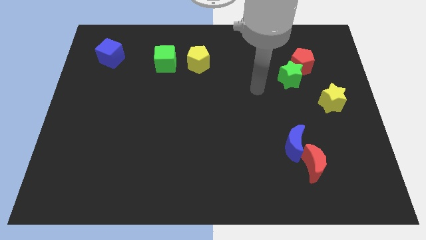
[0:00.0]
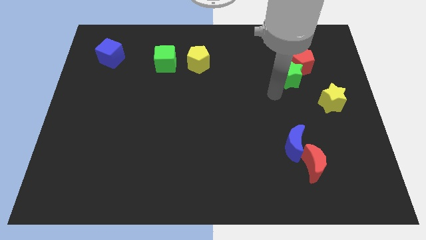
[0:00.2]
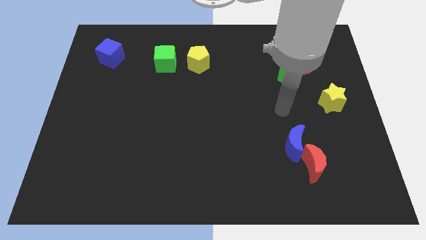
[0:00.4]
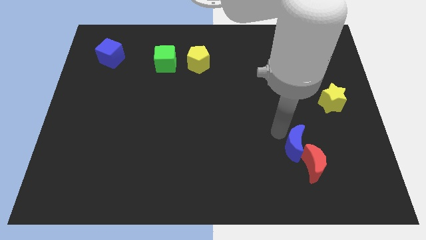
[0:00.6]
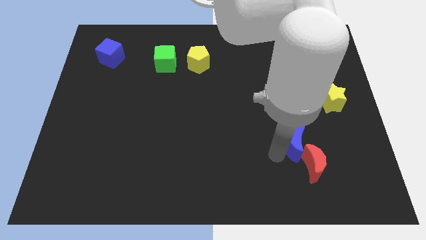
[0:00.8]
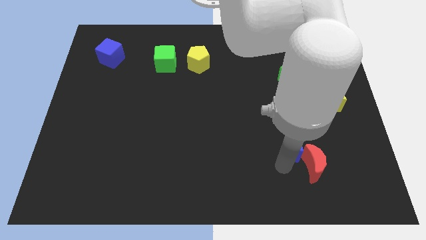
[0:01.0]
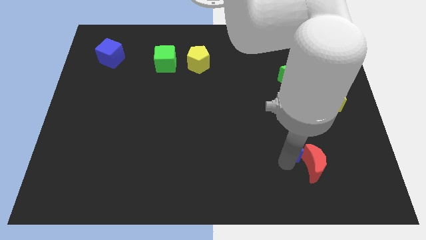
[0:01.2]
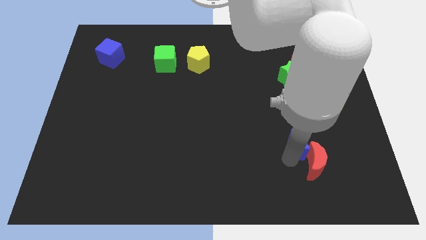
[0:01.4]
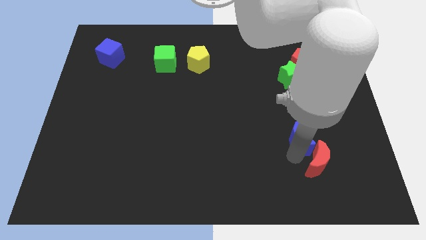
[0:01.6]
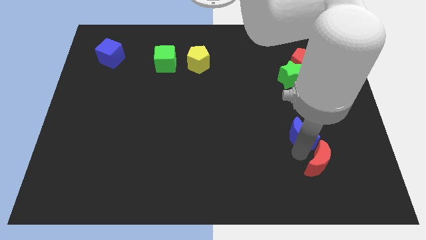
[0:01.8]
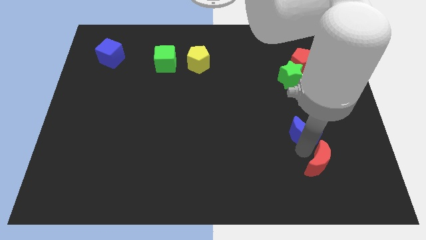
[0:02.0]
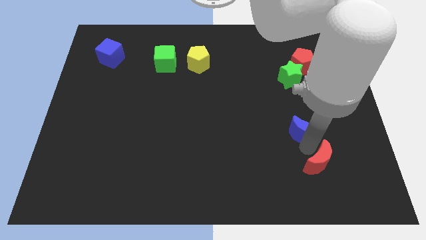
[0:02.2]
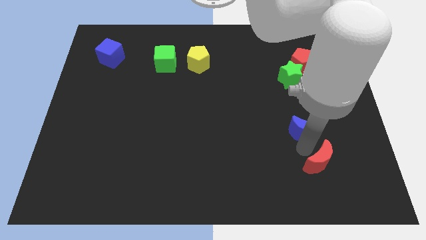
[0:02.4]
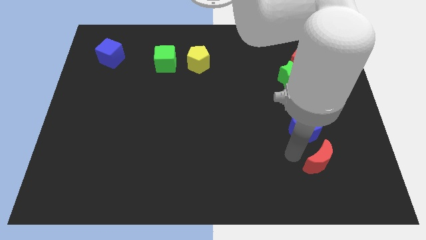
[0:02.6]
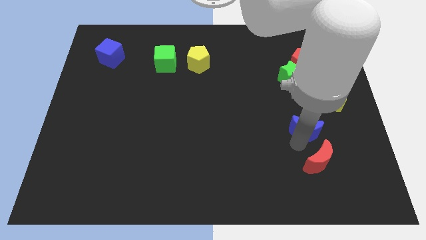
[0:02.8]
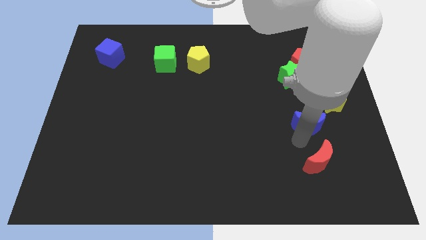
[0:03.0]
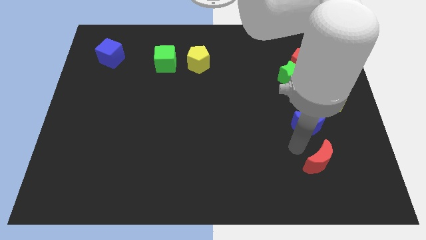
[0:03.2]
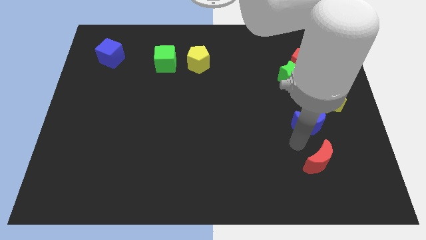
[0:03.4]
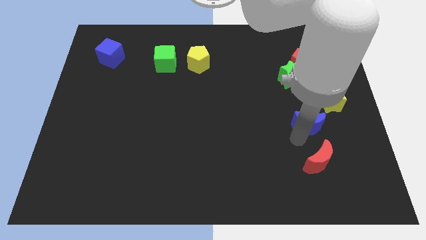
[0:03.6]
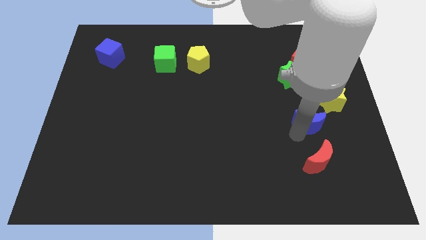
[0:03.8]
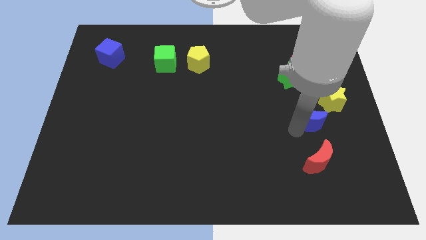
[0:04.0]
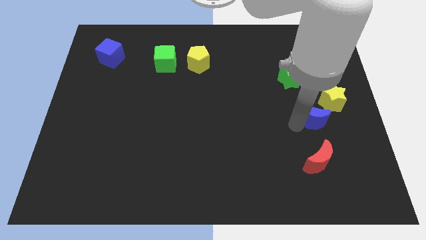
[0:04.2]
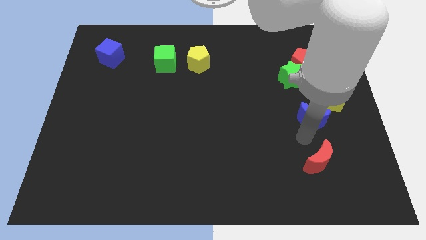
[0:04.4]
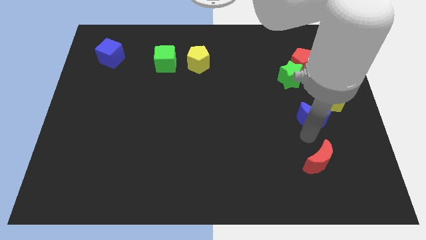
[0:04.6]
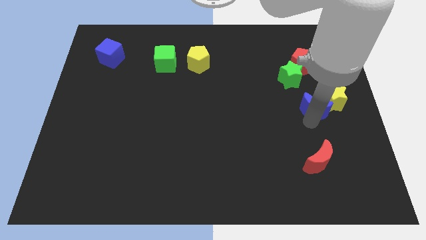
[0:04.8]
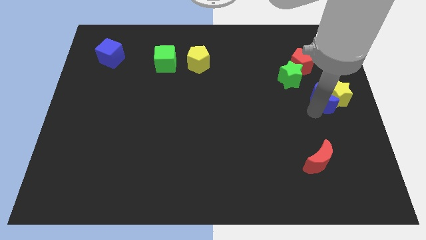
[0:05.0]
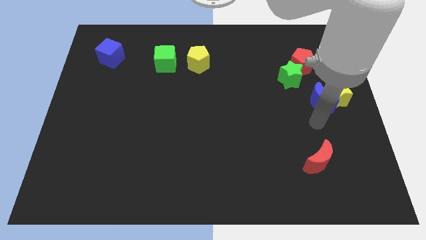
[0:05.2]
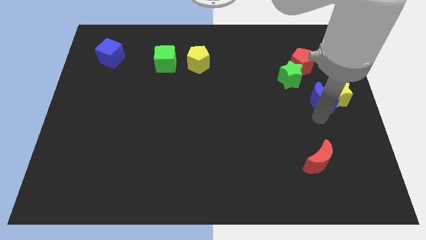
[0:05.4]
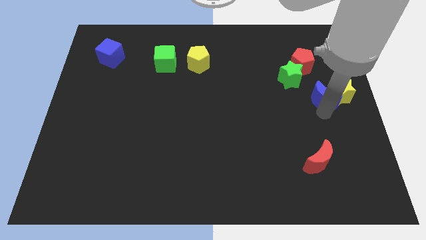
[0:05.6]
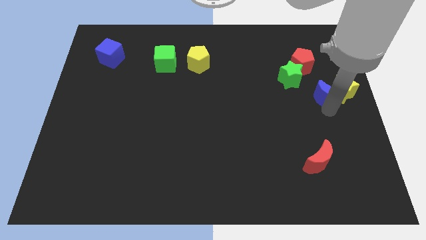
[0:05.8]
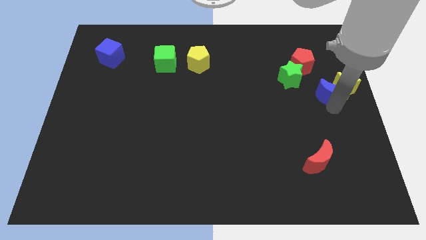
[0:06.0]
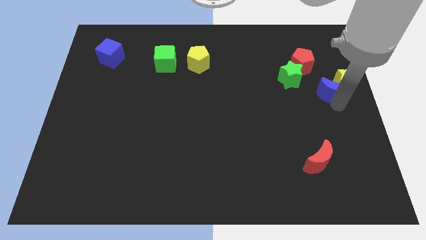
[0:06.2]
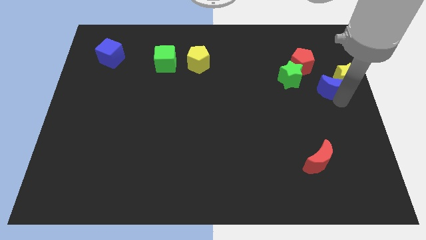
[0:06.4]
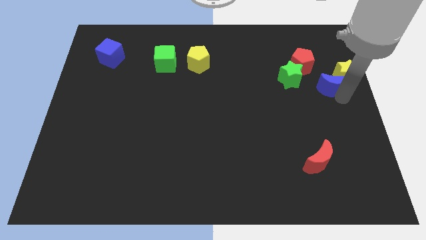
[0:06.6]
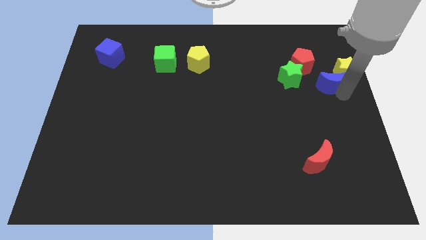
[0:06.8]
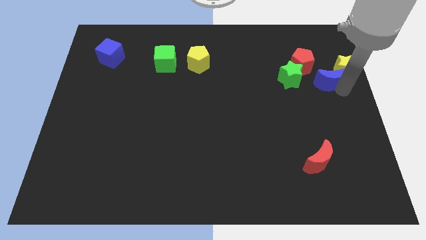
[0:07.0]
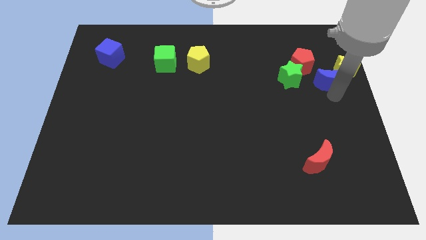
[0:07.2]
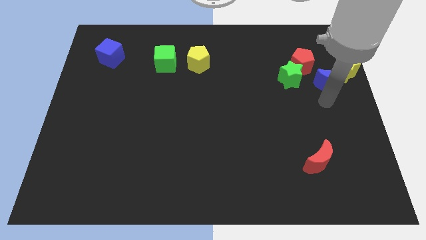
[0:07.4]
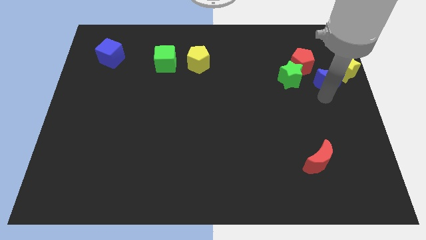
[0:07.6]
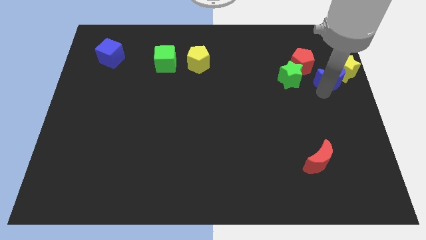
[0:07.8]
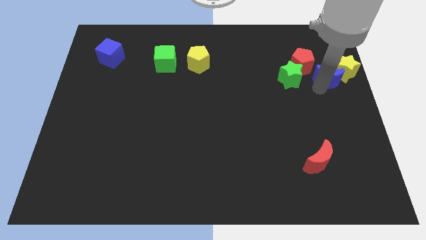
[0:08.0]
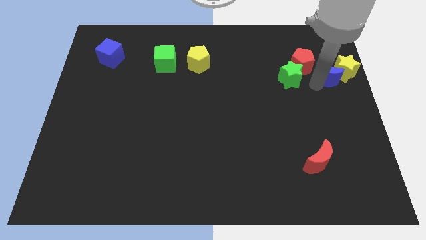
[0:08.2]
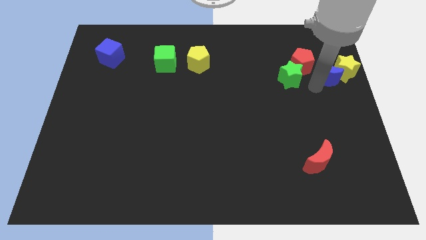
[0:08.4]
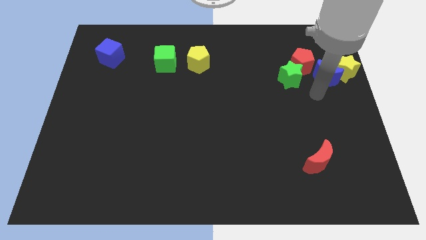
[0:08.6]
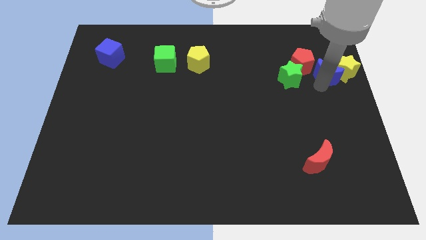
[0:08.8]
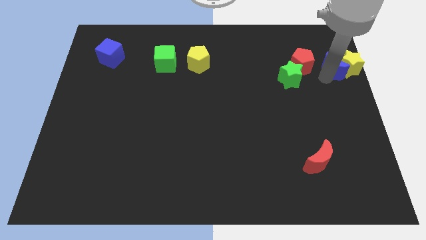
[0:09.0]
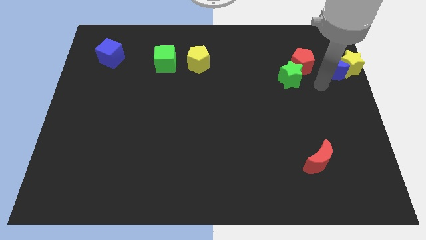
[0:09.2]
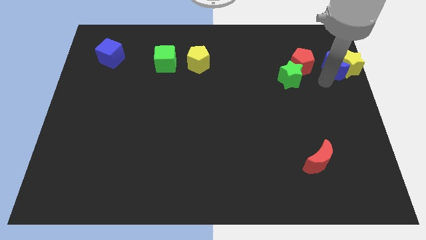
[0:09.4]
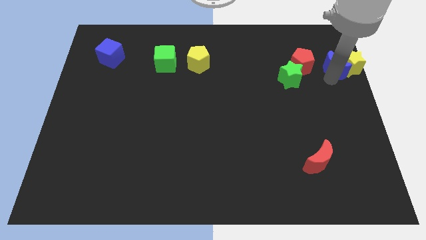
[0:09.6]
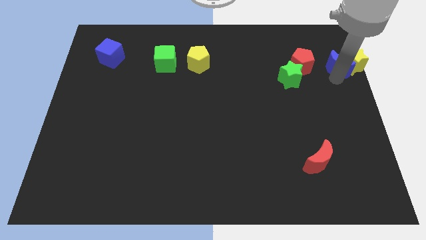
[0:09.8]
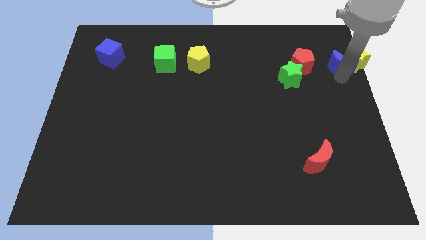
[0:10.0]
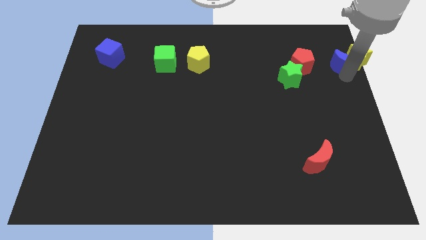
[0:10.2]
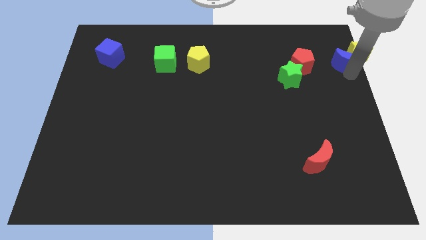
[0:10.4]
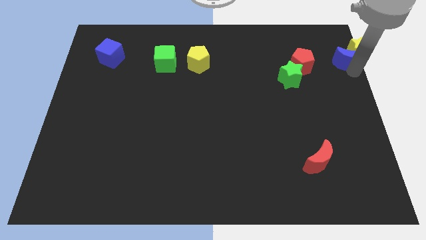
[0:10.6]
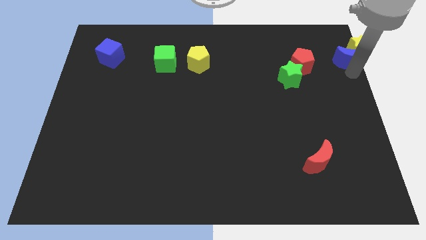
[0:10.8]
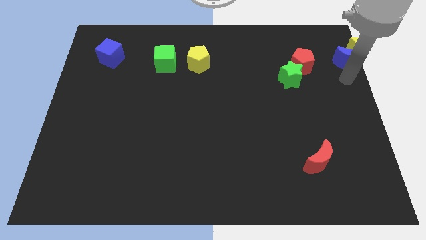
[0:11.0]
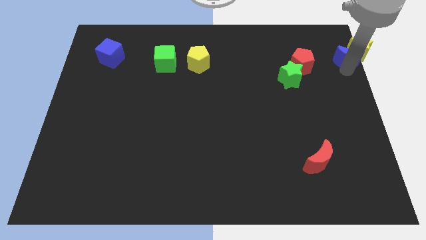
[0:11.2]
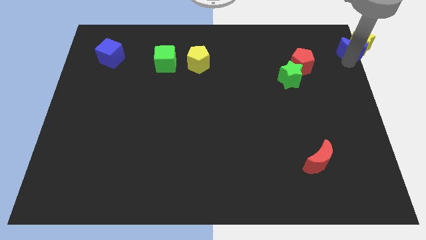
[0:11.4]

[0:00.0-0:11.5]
put the blue moon to the top right
